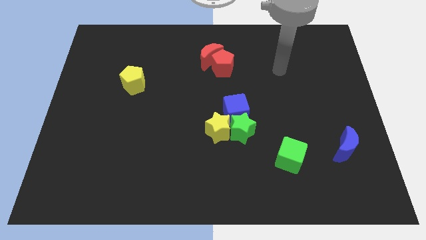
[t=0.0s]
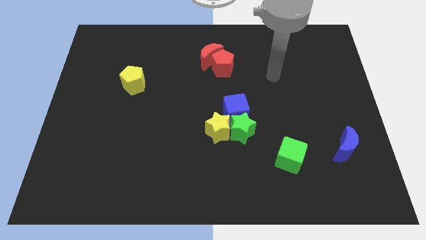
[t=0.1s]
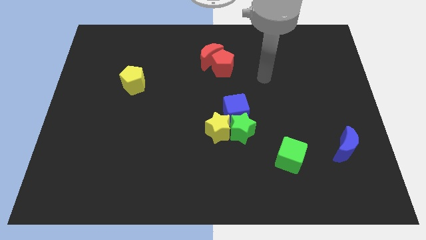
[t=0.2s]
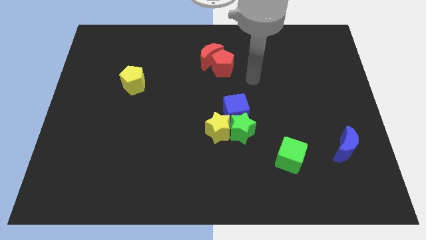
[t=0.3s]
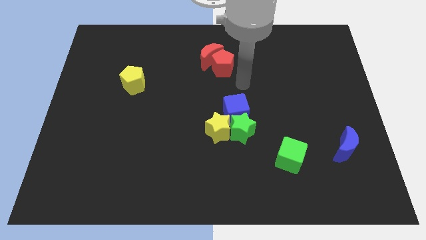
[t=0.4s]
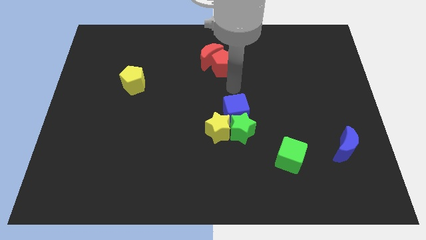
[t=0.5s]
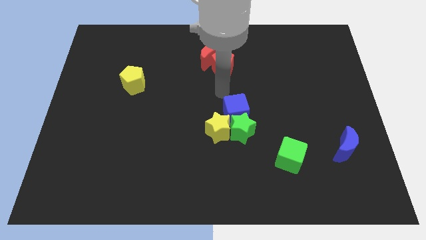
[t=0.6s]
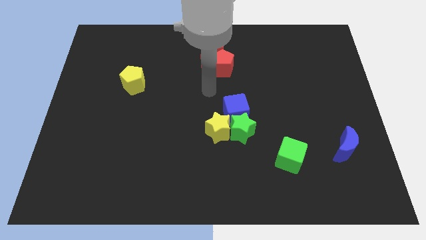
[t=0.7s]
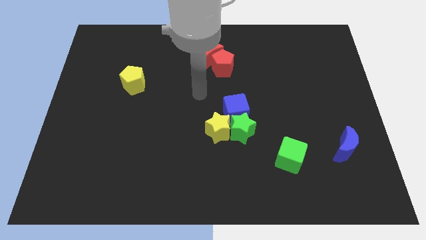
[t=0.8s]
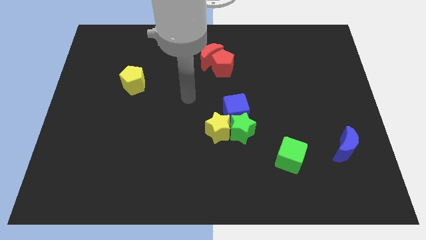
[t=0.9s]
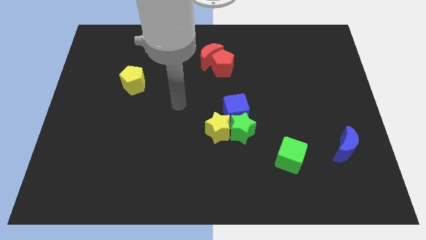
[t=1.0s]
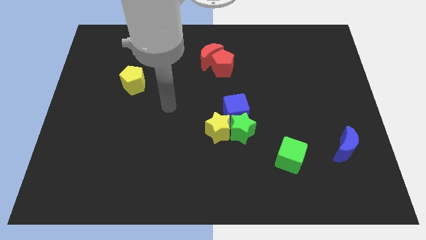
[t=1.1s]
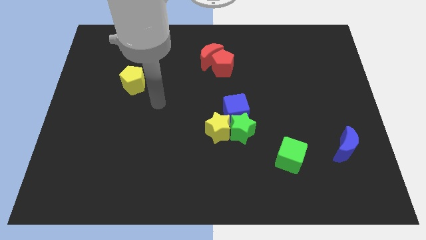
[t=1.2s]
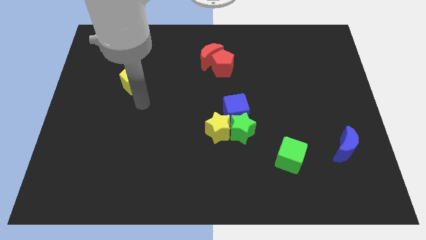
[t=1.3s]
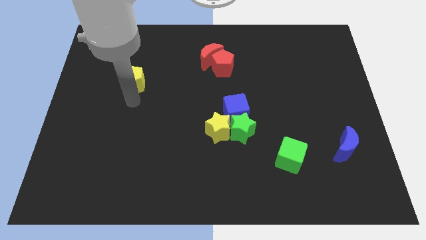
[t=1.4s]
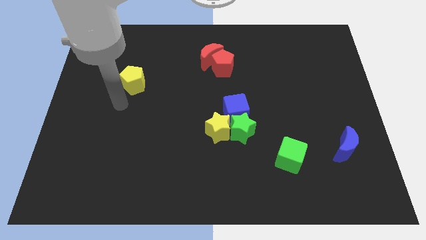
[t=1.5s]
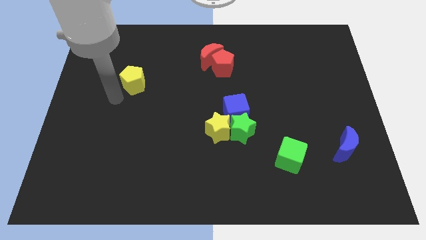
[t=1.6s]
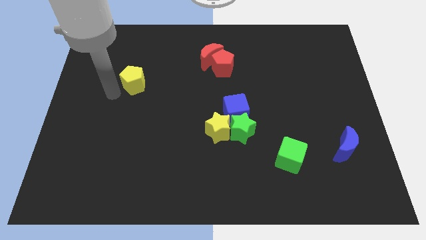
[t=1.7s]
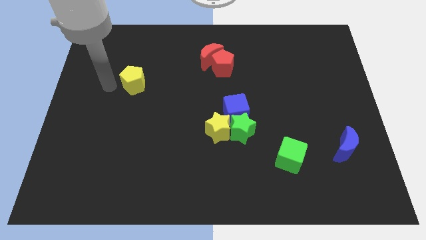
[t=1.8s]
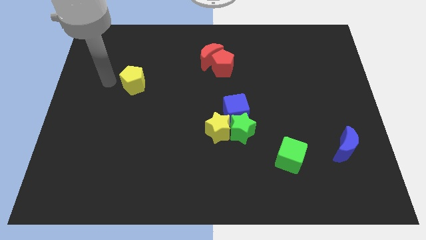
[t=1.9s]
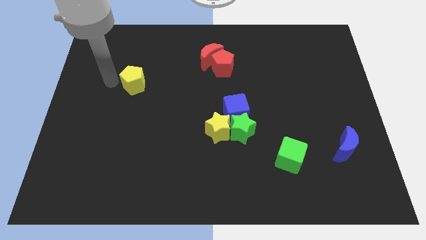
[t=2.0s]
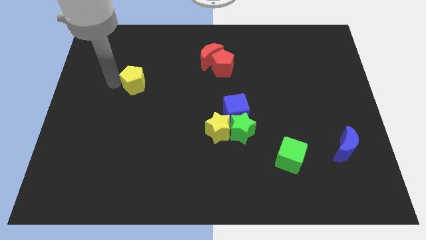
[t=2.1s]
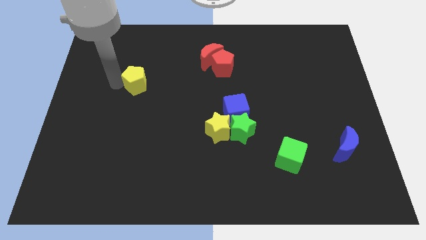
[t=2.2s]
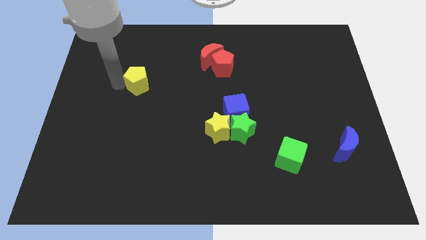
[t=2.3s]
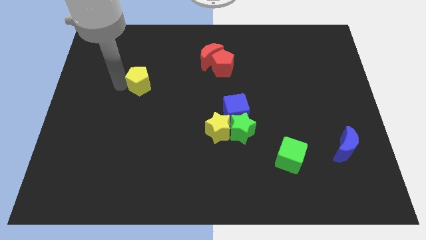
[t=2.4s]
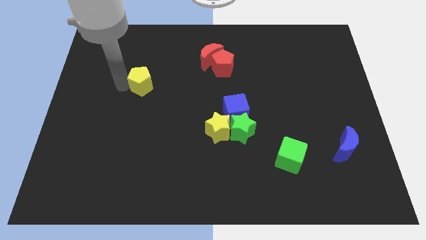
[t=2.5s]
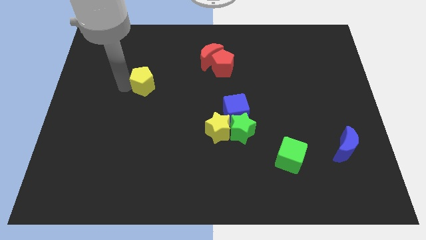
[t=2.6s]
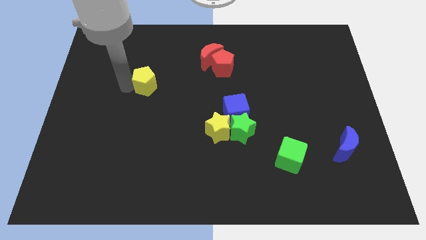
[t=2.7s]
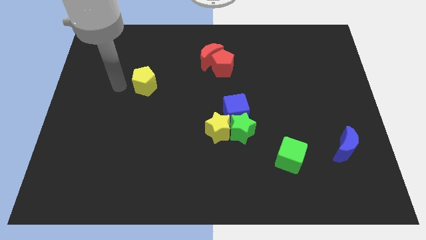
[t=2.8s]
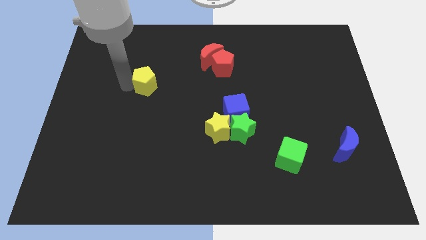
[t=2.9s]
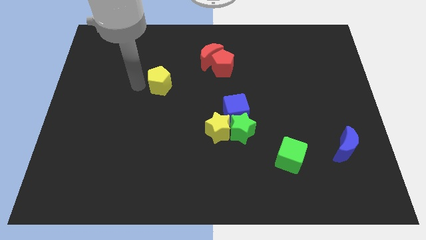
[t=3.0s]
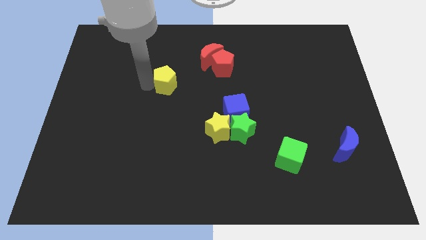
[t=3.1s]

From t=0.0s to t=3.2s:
slightly push the yellow pentagon to the right

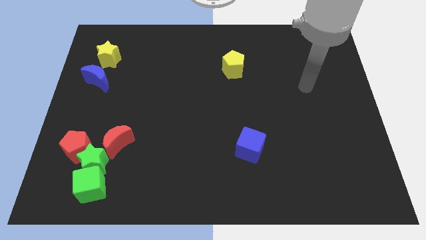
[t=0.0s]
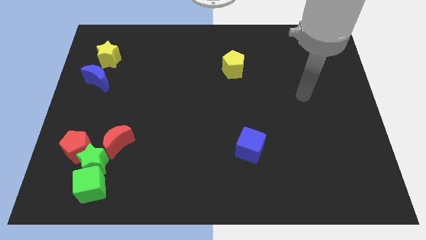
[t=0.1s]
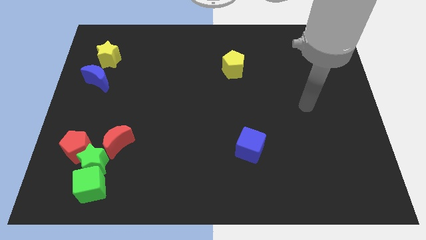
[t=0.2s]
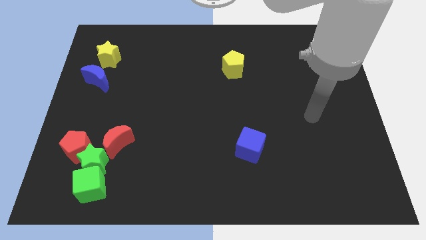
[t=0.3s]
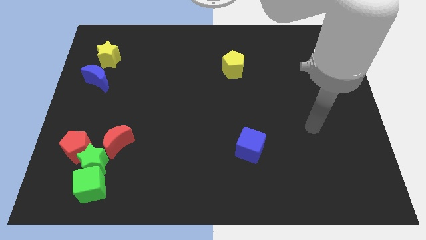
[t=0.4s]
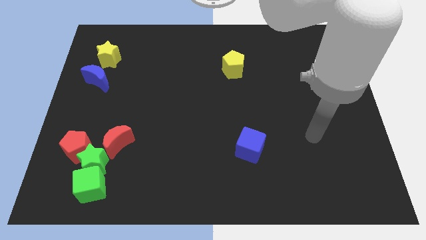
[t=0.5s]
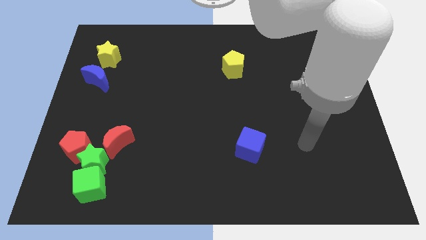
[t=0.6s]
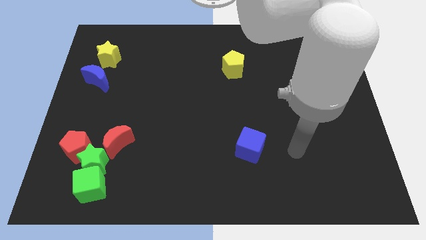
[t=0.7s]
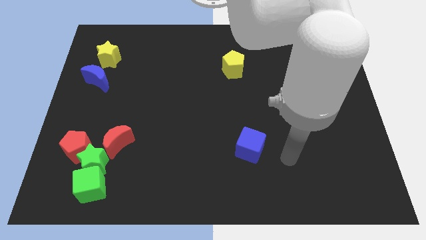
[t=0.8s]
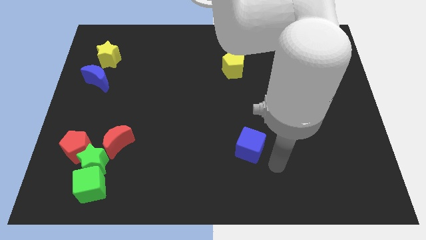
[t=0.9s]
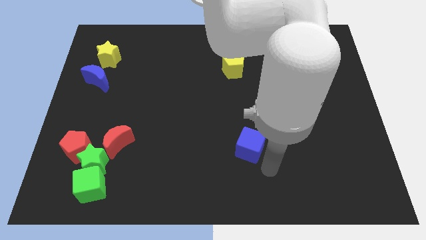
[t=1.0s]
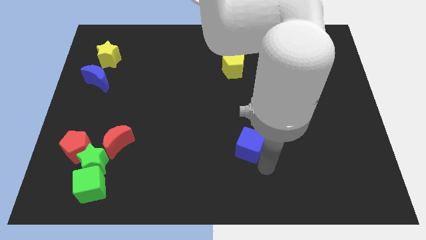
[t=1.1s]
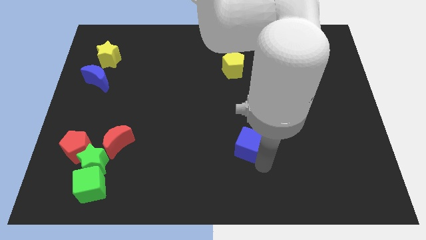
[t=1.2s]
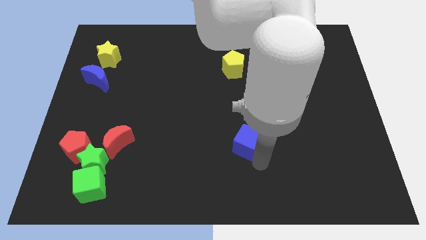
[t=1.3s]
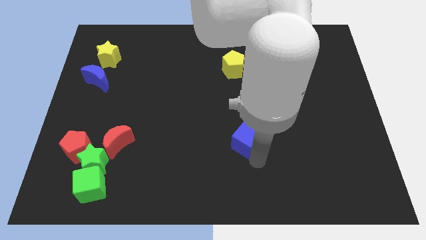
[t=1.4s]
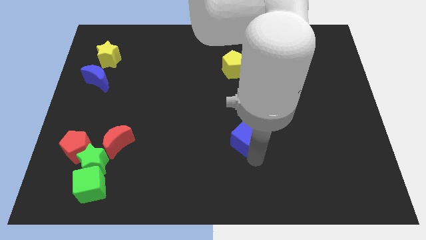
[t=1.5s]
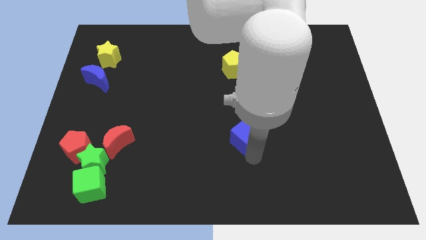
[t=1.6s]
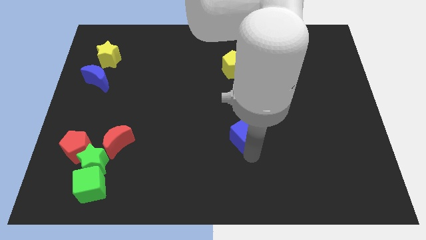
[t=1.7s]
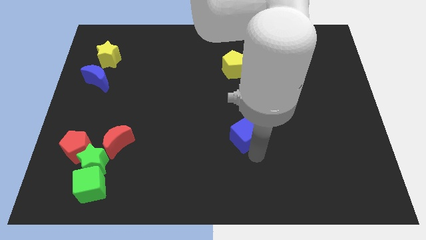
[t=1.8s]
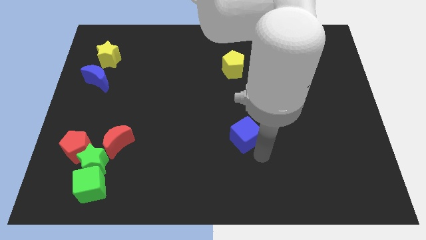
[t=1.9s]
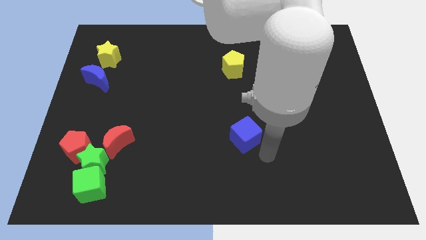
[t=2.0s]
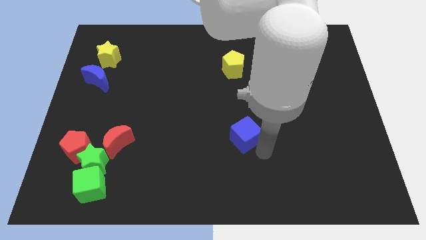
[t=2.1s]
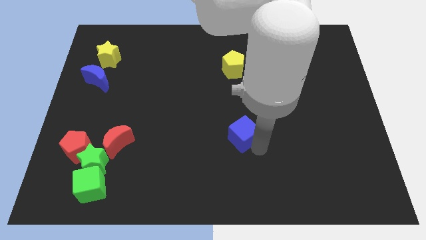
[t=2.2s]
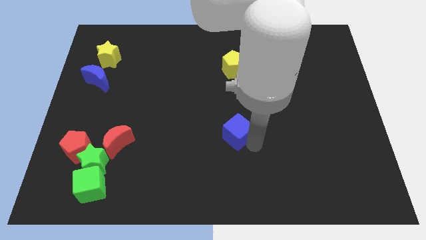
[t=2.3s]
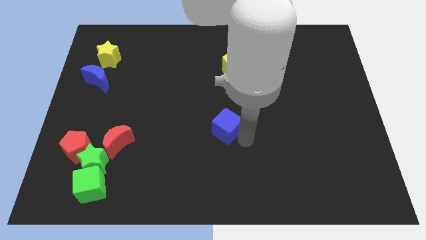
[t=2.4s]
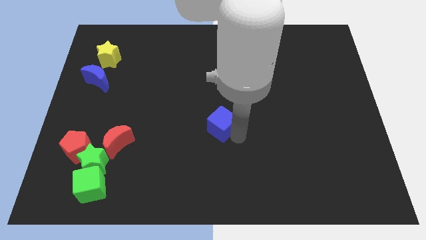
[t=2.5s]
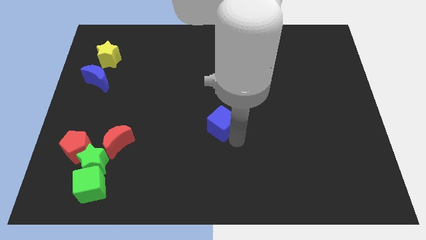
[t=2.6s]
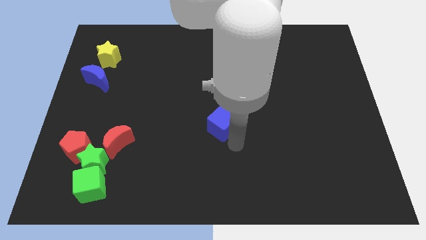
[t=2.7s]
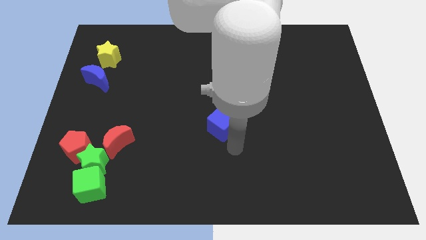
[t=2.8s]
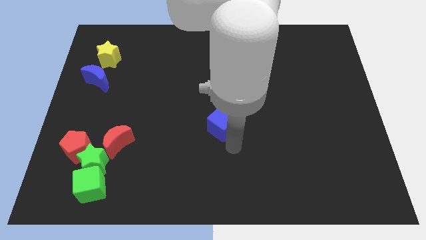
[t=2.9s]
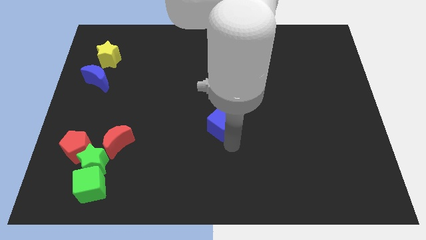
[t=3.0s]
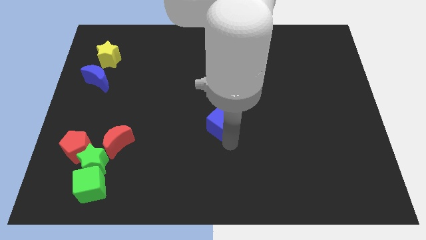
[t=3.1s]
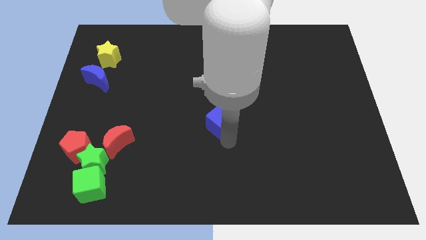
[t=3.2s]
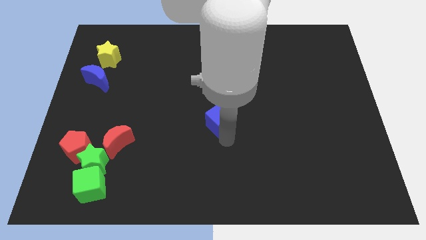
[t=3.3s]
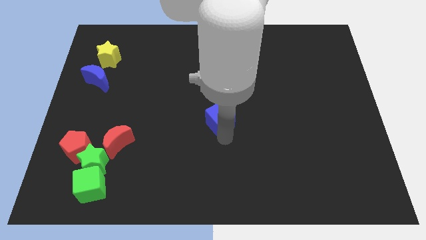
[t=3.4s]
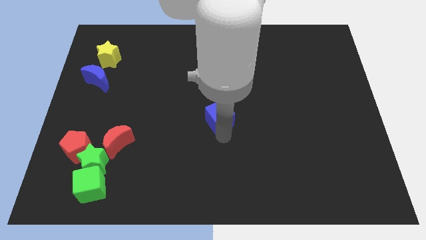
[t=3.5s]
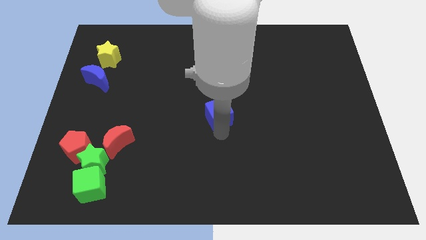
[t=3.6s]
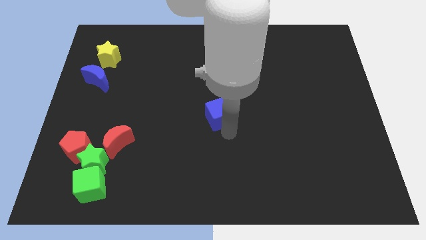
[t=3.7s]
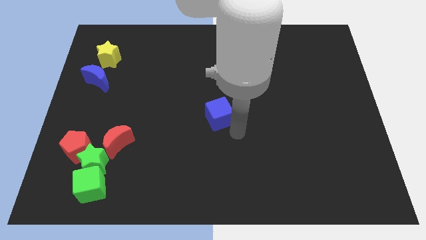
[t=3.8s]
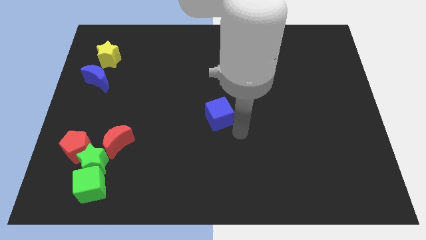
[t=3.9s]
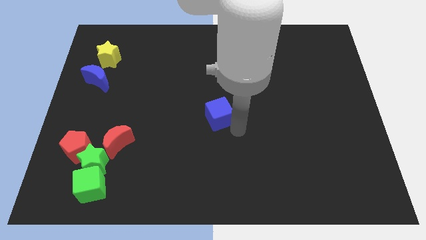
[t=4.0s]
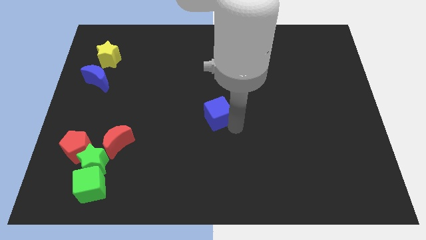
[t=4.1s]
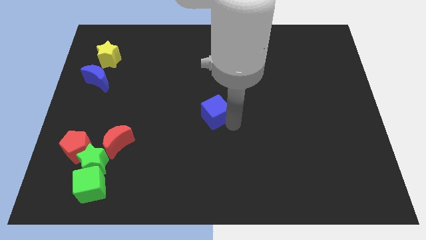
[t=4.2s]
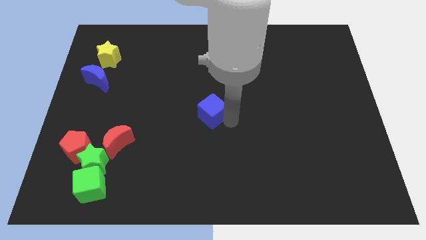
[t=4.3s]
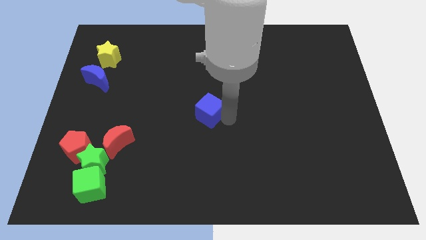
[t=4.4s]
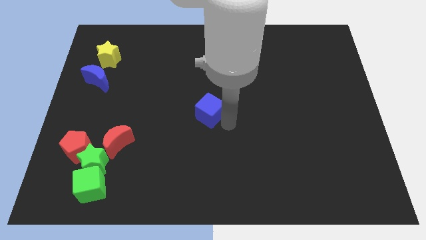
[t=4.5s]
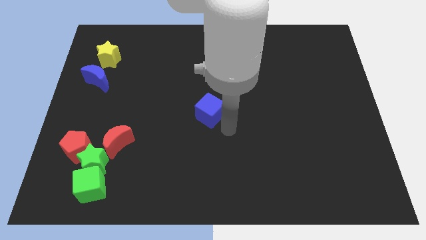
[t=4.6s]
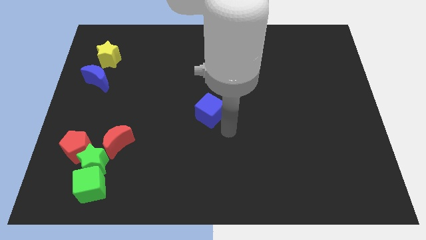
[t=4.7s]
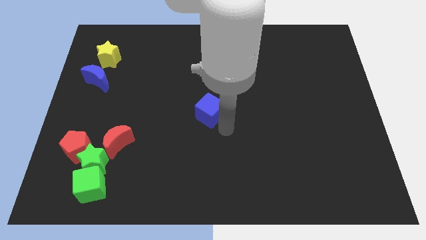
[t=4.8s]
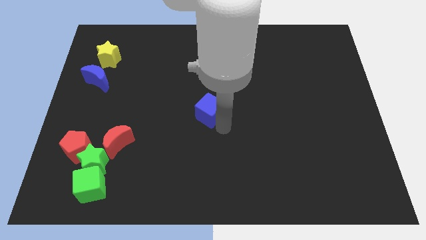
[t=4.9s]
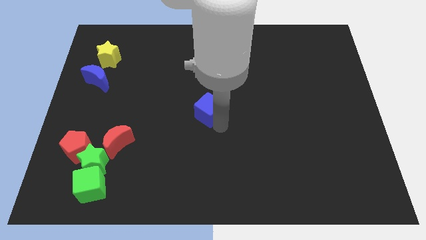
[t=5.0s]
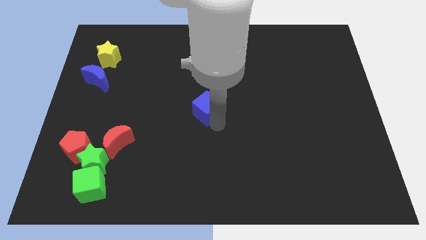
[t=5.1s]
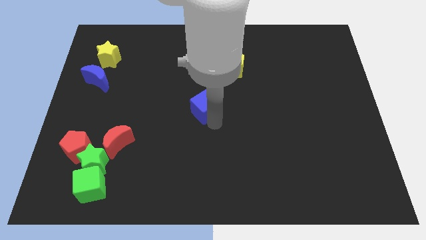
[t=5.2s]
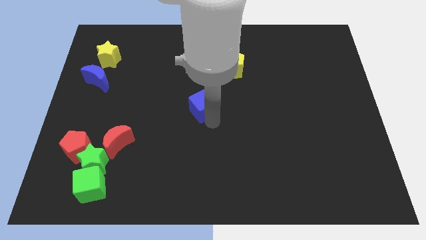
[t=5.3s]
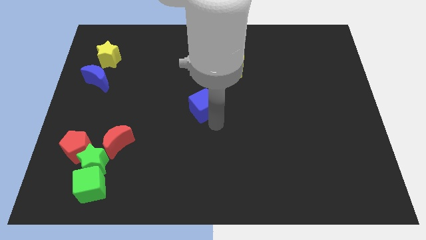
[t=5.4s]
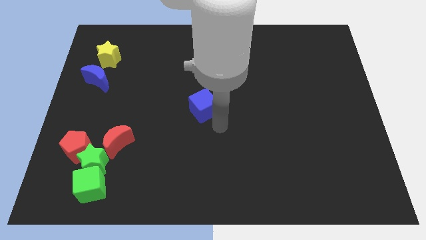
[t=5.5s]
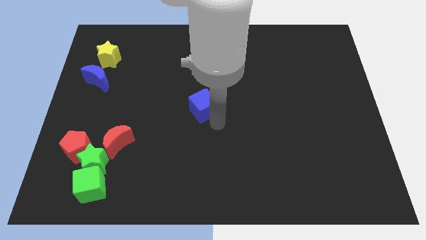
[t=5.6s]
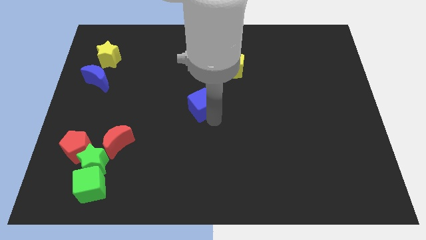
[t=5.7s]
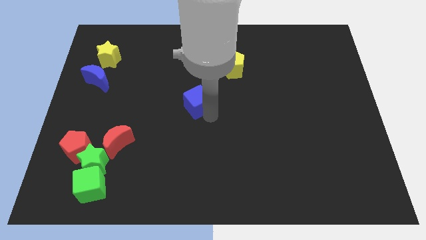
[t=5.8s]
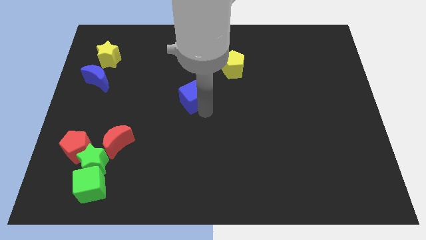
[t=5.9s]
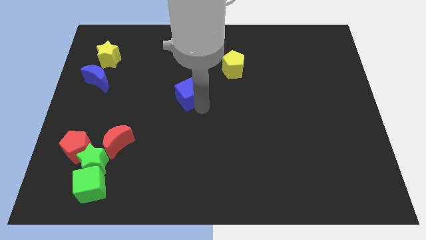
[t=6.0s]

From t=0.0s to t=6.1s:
slide the blue cube up and left
